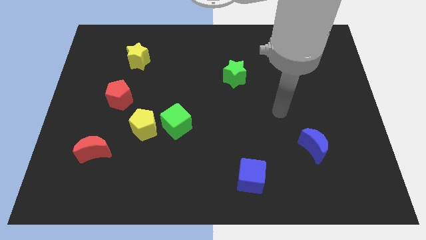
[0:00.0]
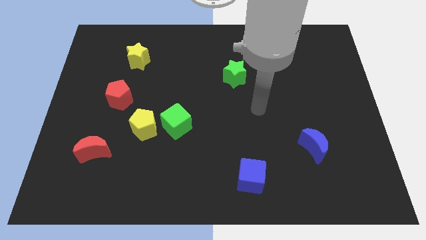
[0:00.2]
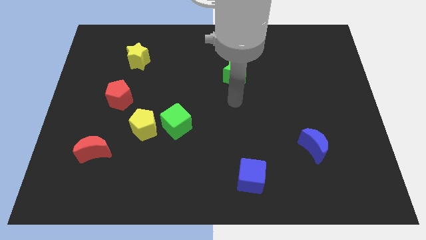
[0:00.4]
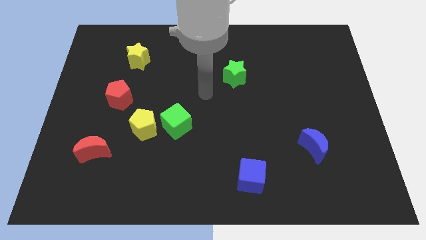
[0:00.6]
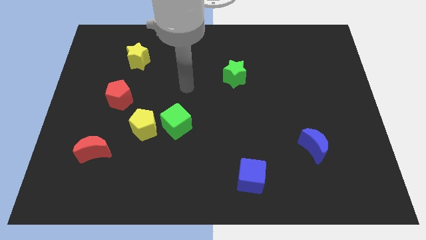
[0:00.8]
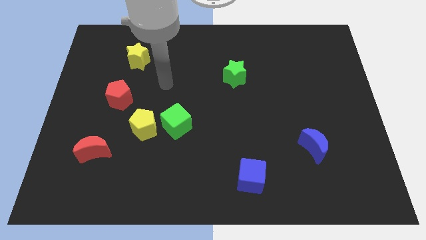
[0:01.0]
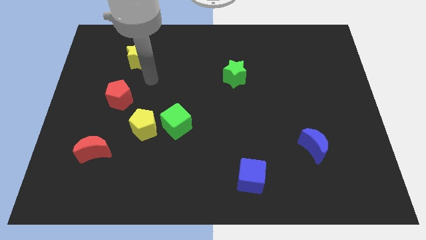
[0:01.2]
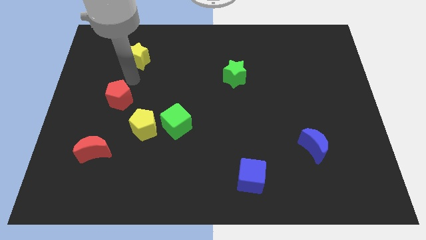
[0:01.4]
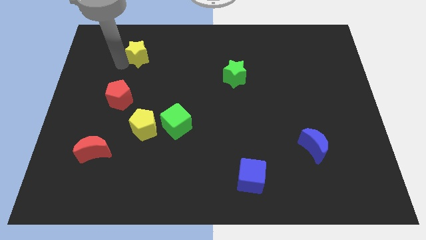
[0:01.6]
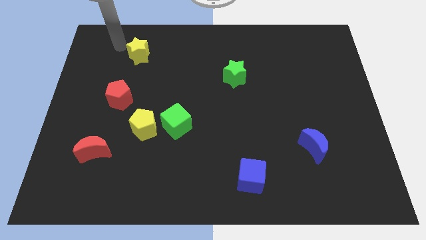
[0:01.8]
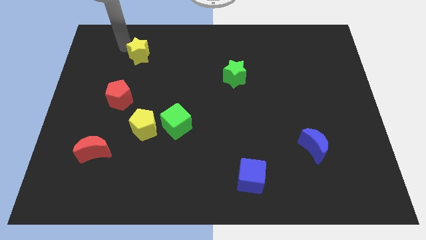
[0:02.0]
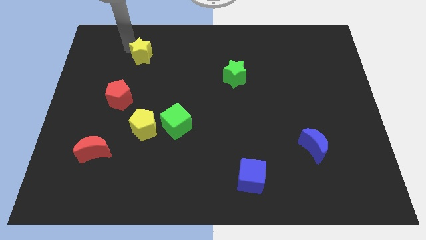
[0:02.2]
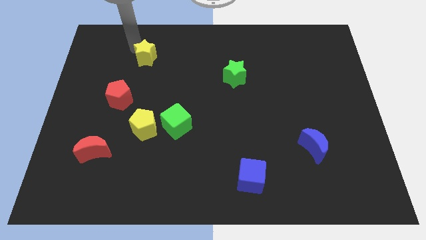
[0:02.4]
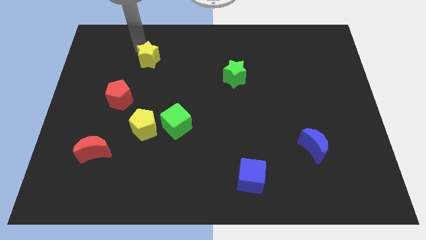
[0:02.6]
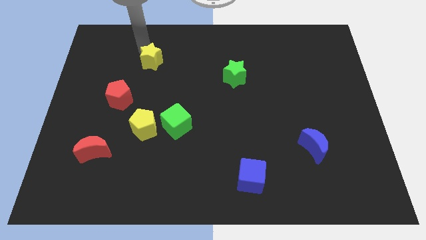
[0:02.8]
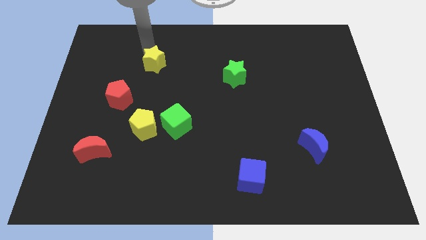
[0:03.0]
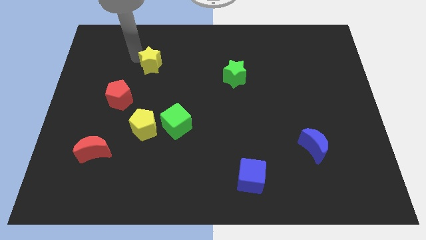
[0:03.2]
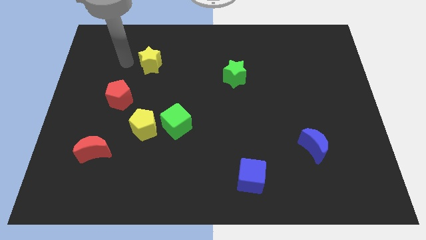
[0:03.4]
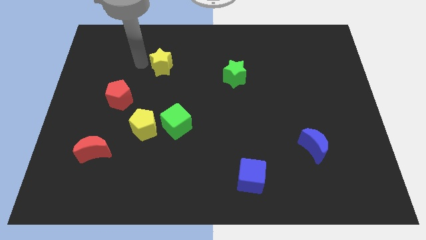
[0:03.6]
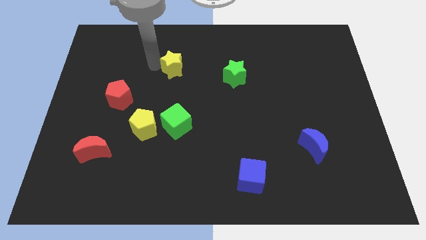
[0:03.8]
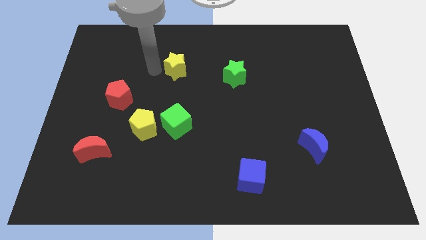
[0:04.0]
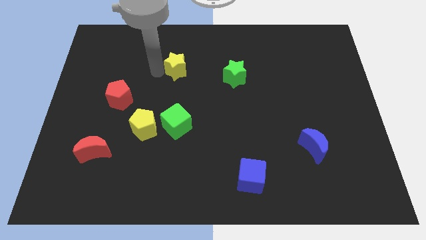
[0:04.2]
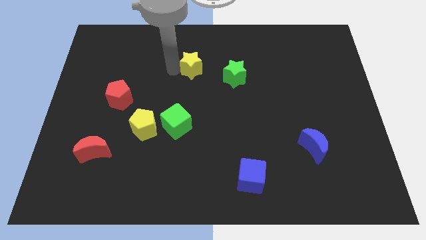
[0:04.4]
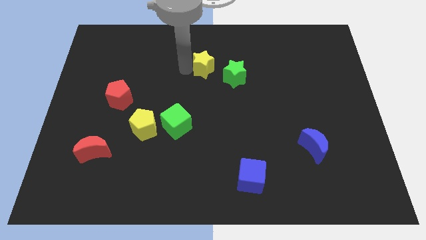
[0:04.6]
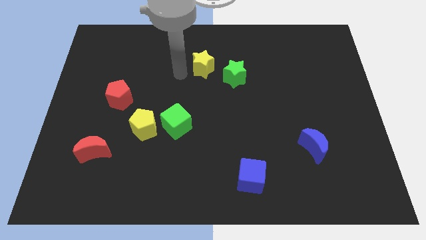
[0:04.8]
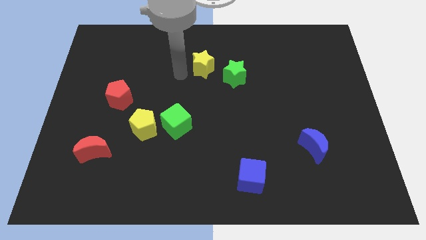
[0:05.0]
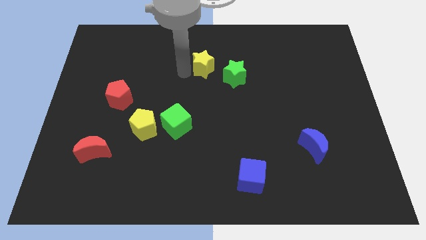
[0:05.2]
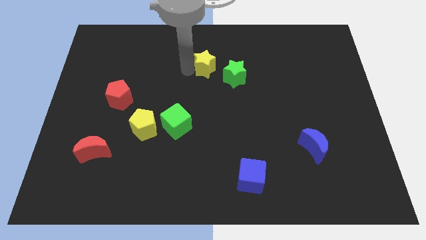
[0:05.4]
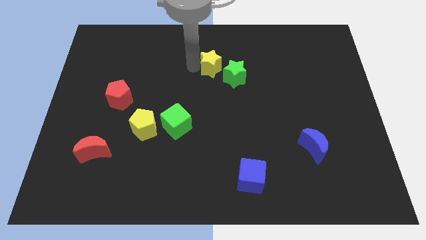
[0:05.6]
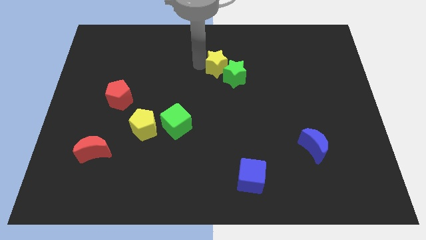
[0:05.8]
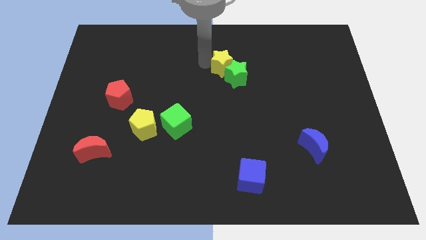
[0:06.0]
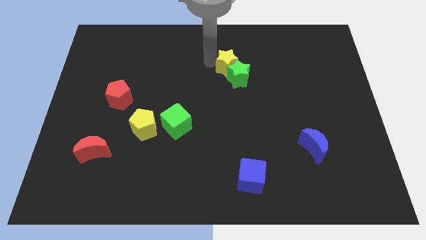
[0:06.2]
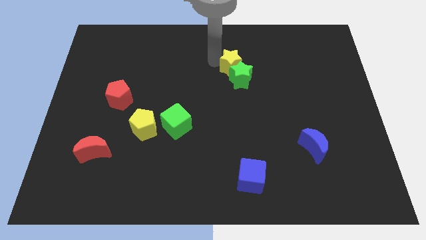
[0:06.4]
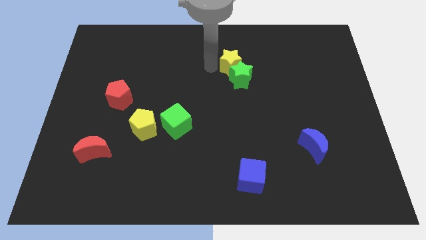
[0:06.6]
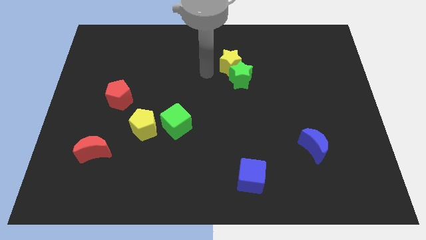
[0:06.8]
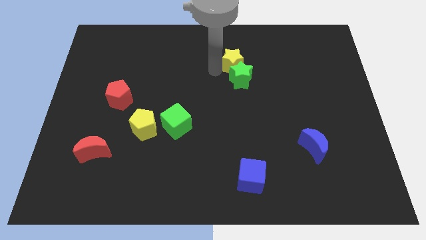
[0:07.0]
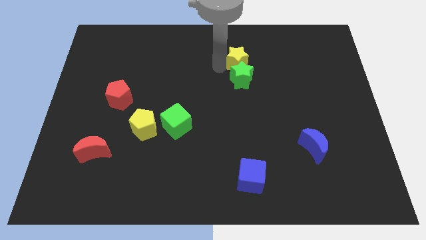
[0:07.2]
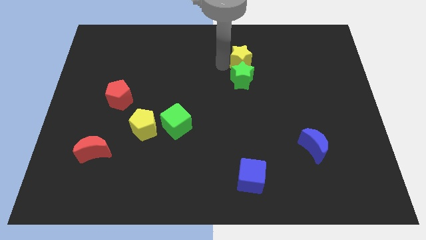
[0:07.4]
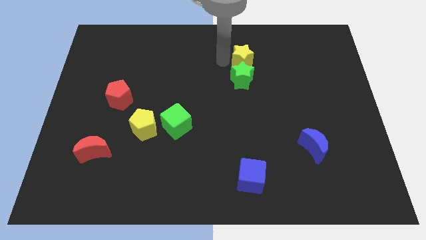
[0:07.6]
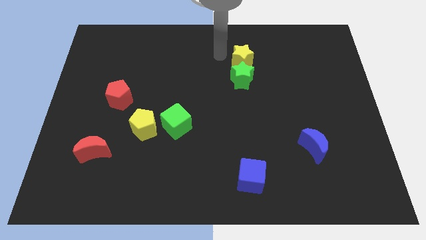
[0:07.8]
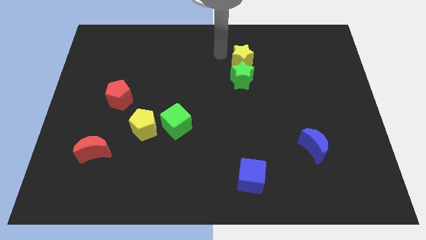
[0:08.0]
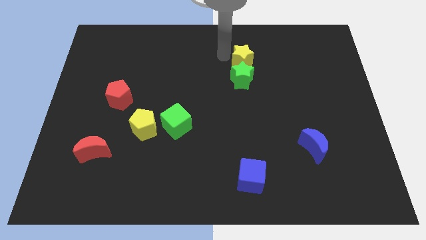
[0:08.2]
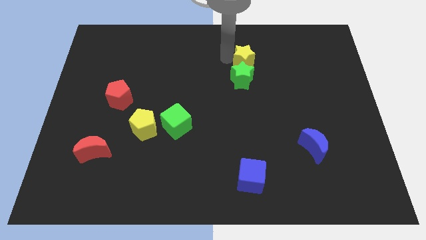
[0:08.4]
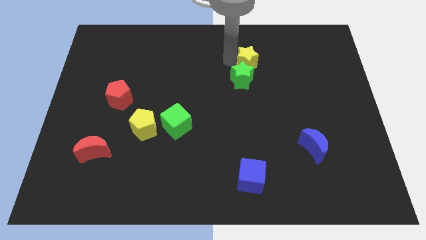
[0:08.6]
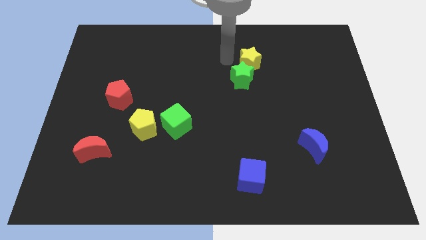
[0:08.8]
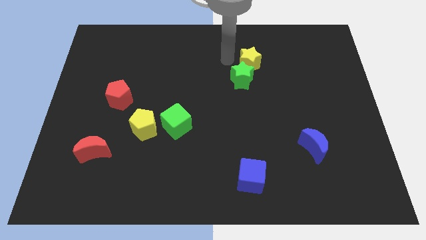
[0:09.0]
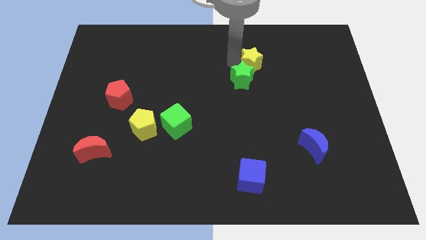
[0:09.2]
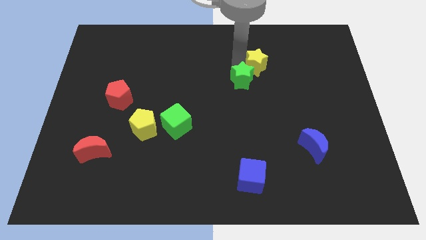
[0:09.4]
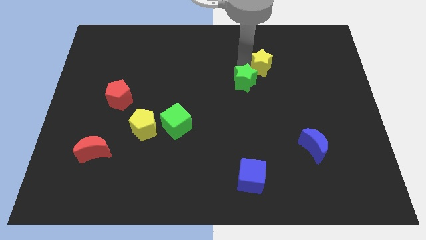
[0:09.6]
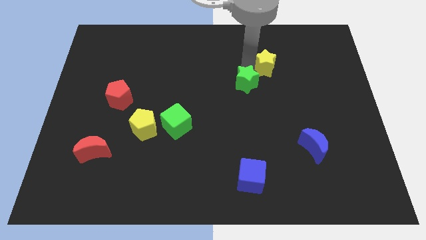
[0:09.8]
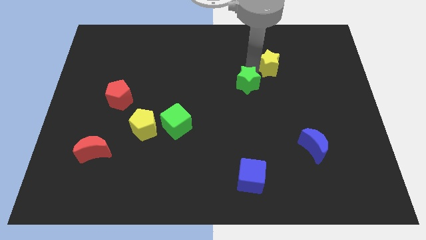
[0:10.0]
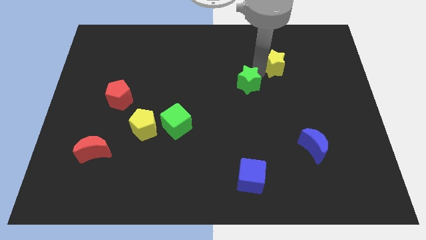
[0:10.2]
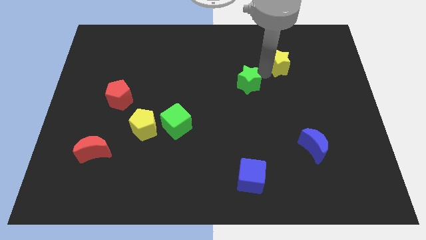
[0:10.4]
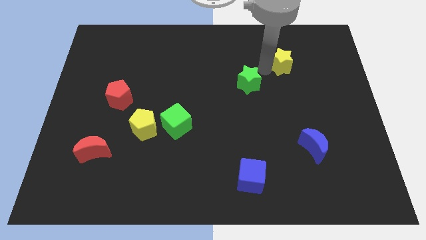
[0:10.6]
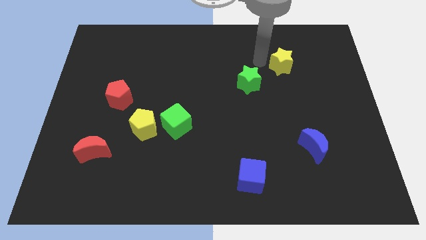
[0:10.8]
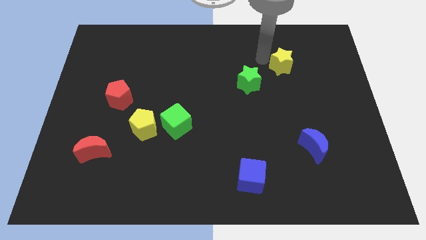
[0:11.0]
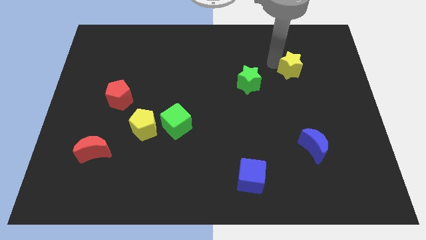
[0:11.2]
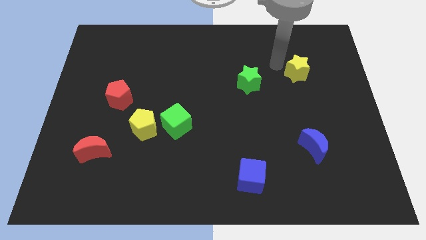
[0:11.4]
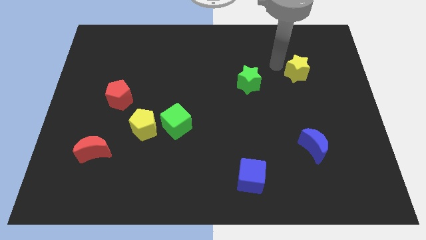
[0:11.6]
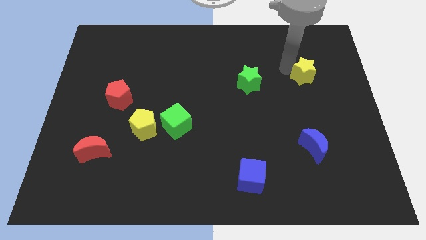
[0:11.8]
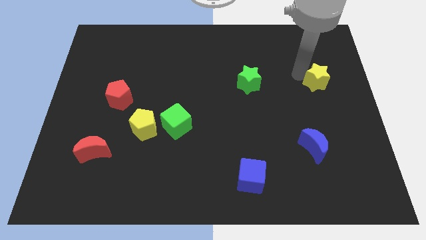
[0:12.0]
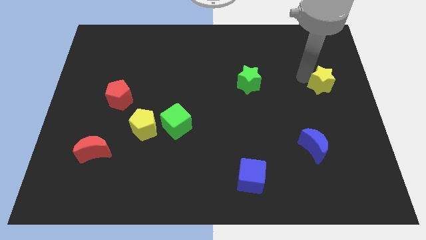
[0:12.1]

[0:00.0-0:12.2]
put the yellow star to the right side of the board

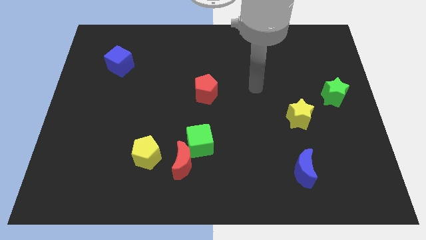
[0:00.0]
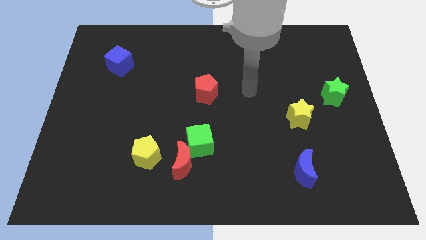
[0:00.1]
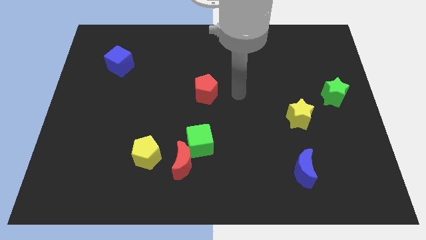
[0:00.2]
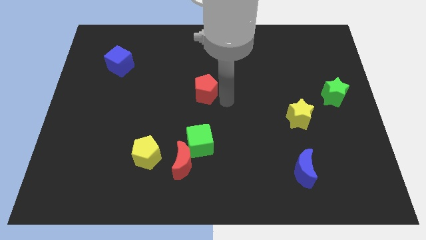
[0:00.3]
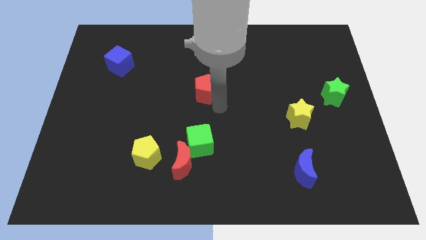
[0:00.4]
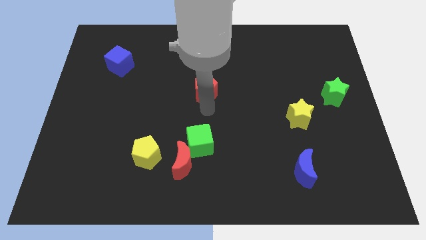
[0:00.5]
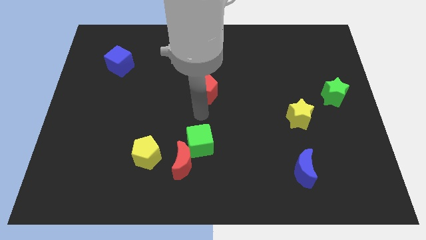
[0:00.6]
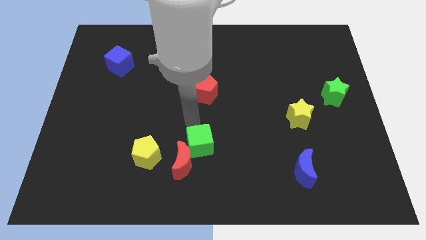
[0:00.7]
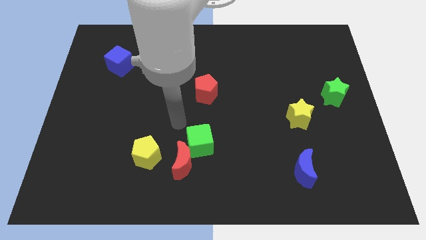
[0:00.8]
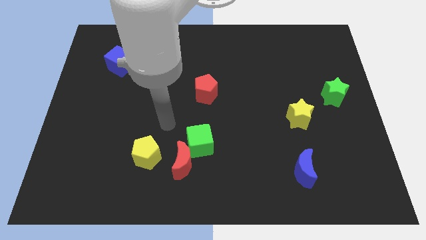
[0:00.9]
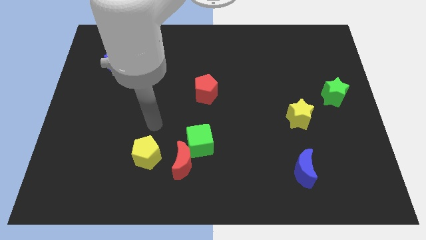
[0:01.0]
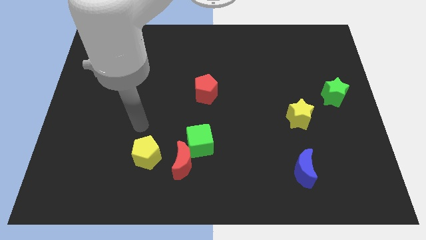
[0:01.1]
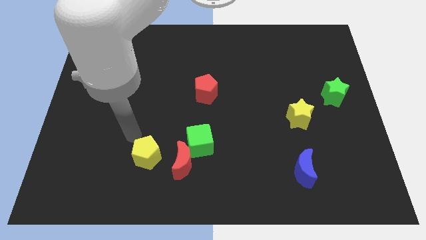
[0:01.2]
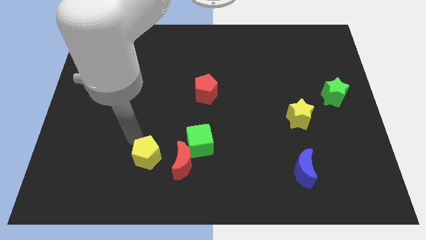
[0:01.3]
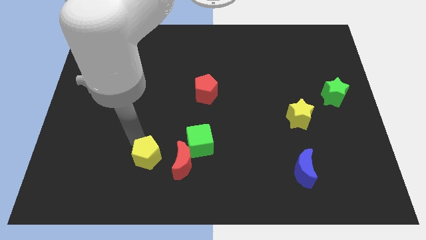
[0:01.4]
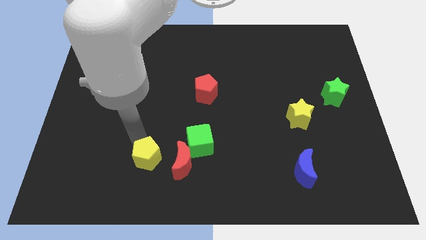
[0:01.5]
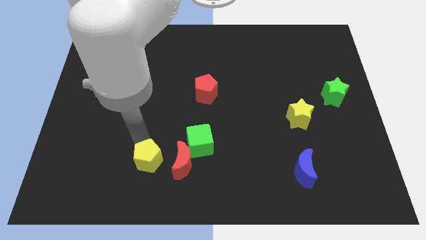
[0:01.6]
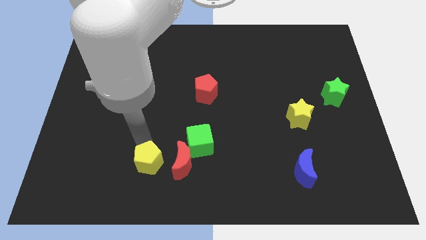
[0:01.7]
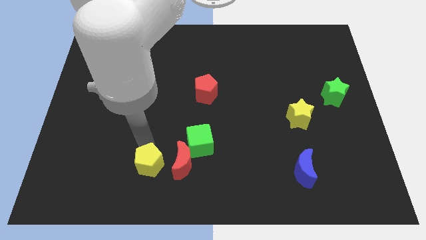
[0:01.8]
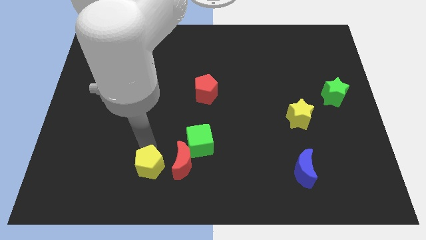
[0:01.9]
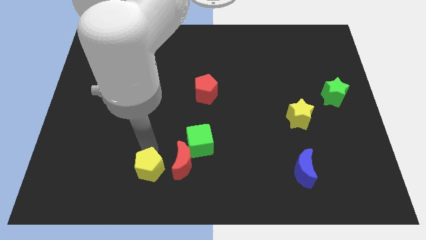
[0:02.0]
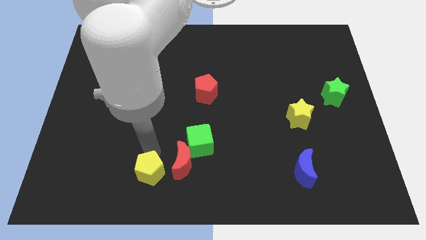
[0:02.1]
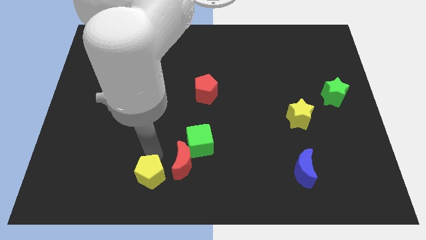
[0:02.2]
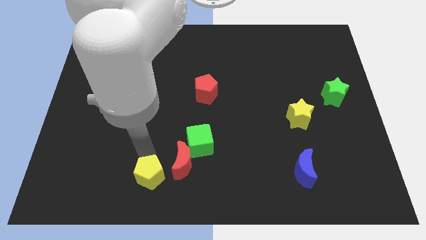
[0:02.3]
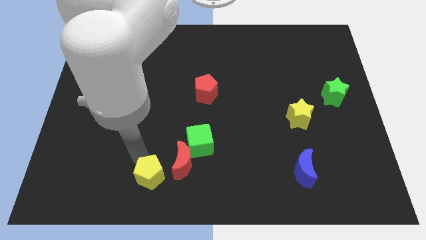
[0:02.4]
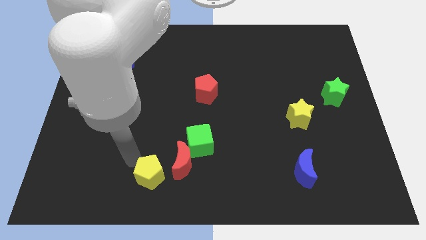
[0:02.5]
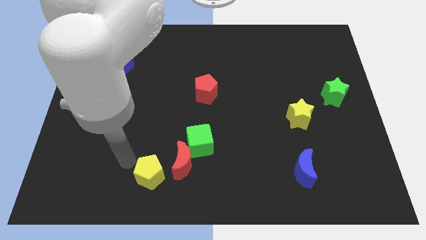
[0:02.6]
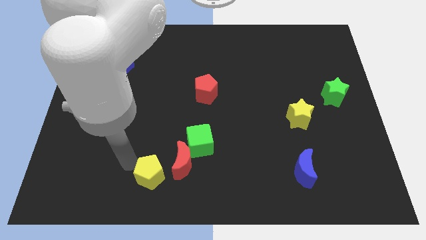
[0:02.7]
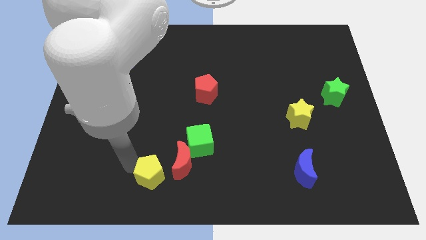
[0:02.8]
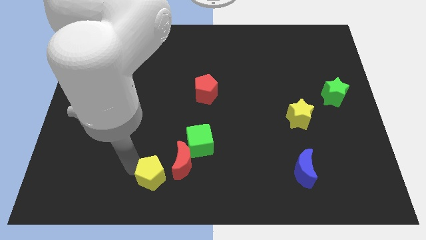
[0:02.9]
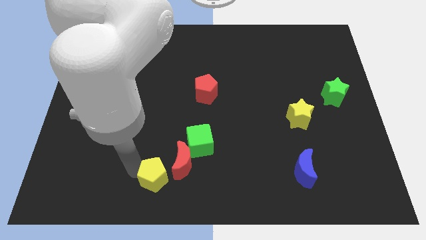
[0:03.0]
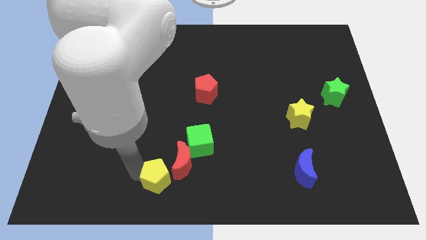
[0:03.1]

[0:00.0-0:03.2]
slide the yellow pentagon to the bottom
